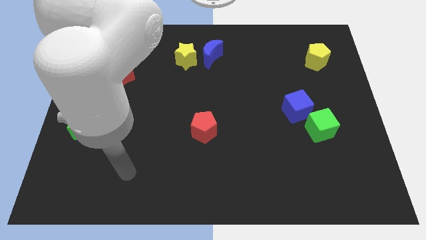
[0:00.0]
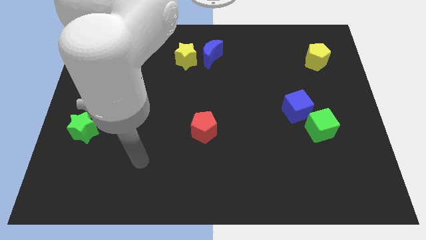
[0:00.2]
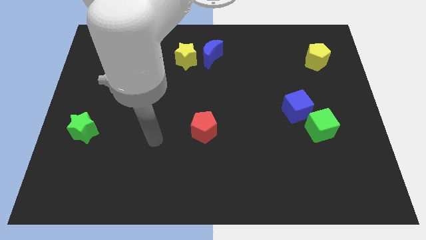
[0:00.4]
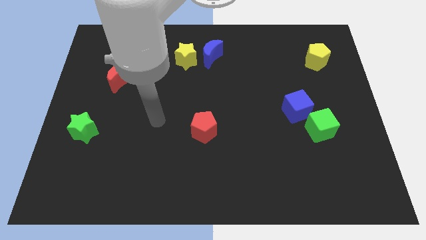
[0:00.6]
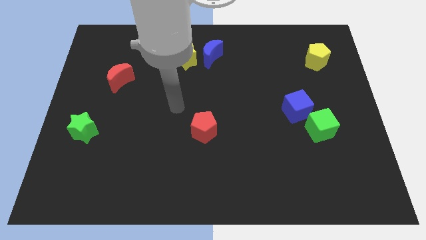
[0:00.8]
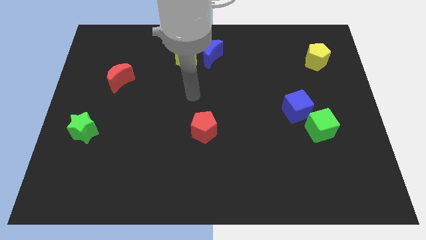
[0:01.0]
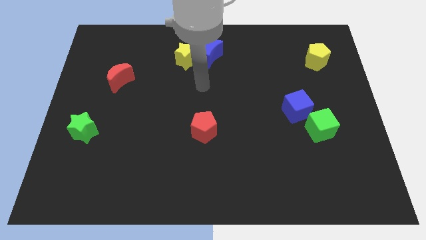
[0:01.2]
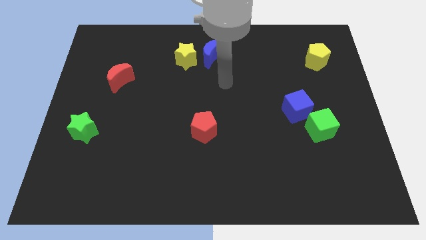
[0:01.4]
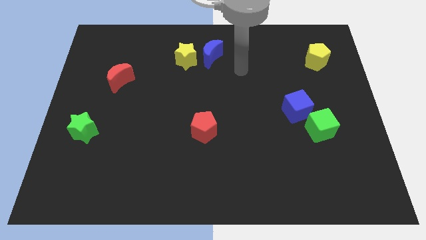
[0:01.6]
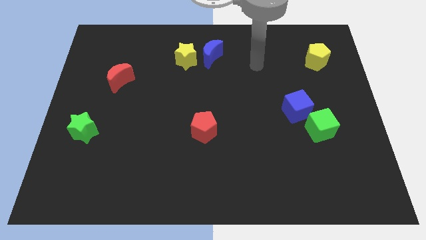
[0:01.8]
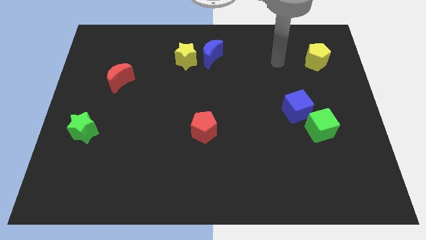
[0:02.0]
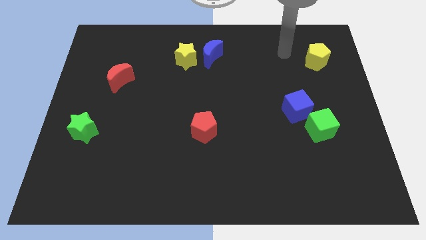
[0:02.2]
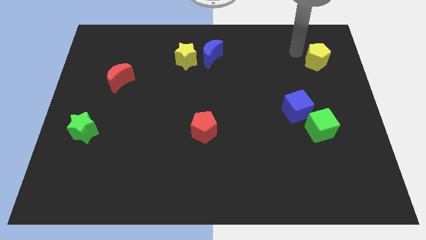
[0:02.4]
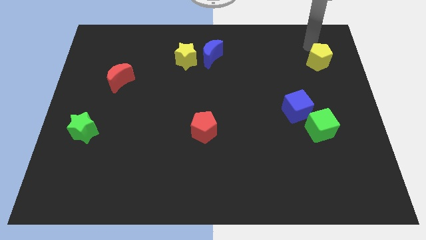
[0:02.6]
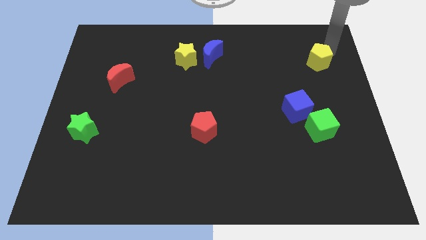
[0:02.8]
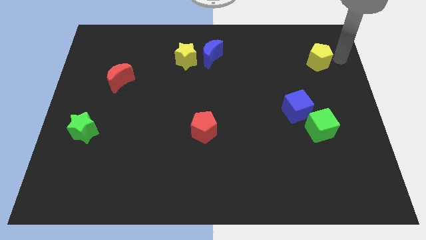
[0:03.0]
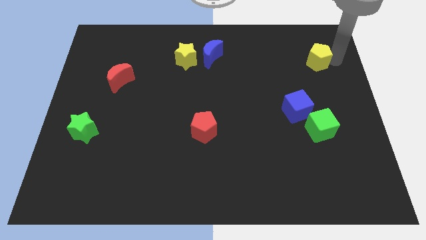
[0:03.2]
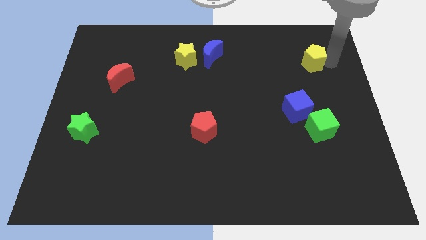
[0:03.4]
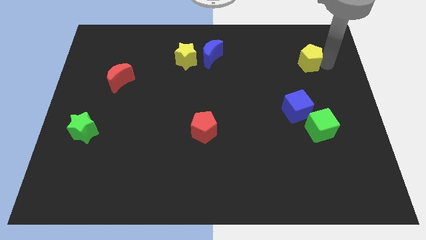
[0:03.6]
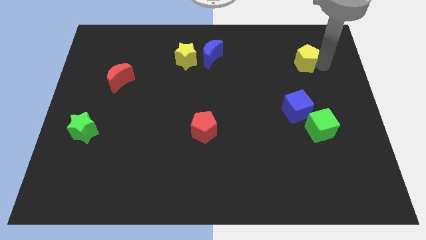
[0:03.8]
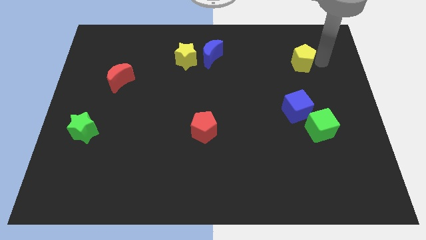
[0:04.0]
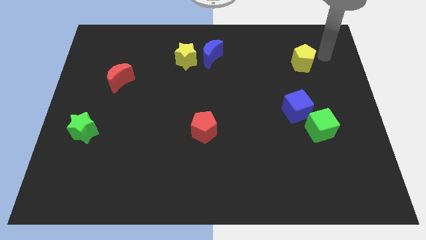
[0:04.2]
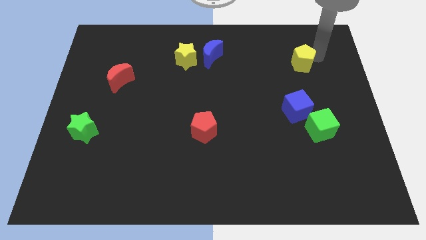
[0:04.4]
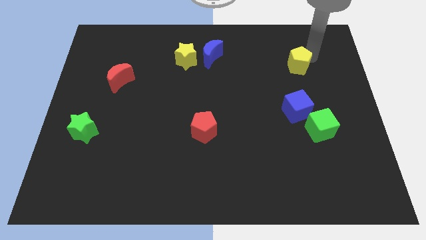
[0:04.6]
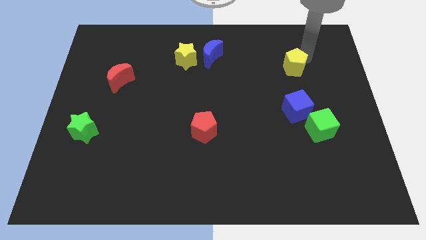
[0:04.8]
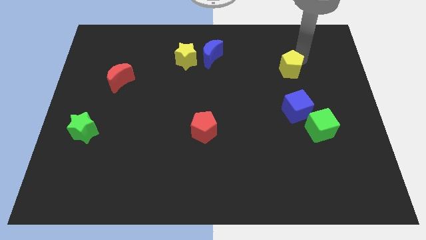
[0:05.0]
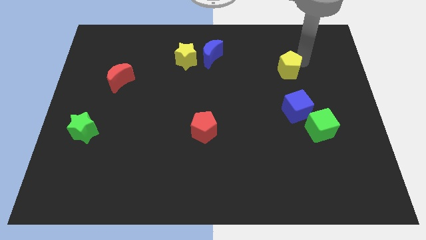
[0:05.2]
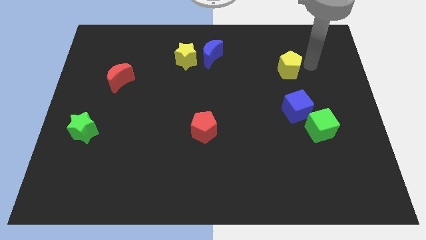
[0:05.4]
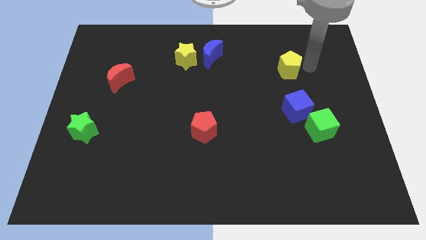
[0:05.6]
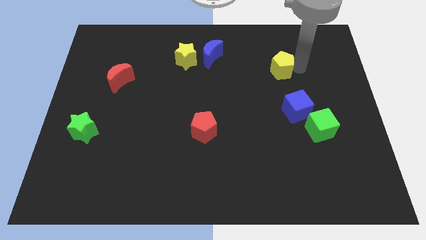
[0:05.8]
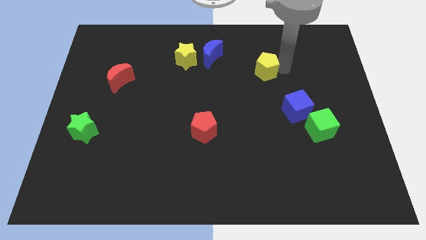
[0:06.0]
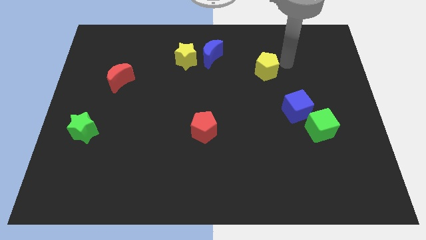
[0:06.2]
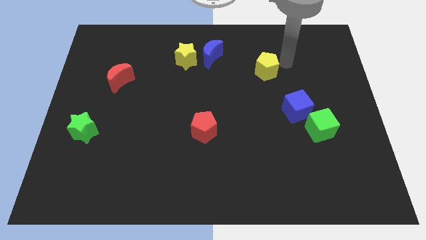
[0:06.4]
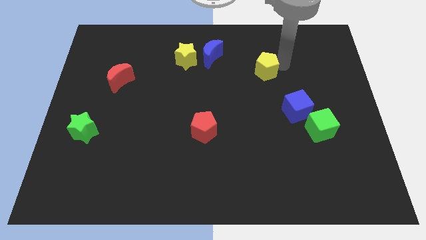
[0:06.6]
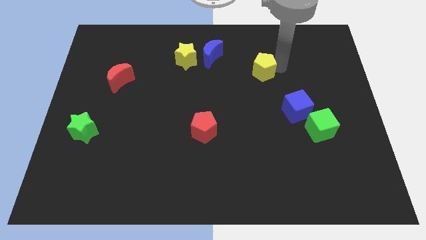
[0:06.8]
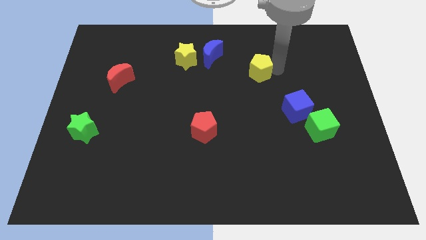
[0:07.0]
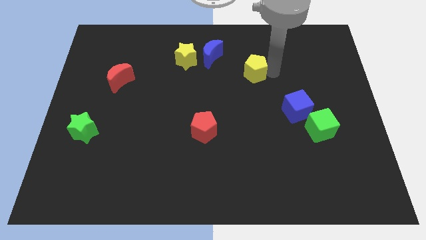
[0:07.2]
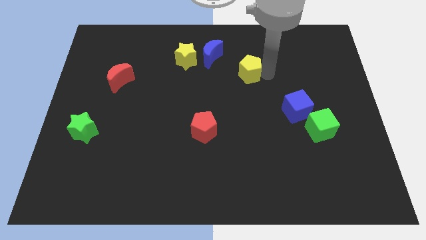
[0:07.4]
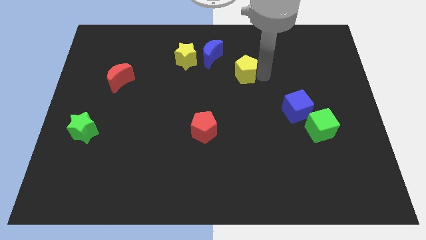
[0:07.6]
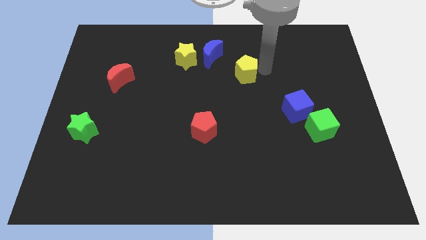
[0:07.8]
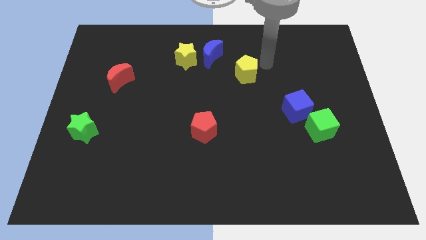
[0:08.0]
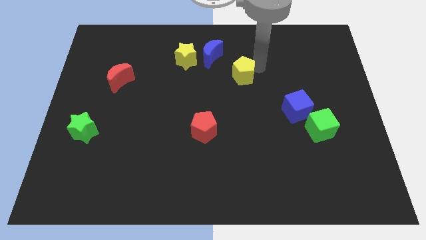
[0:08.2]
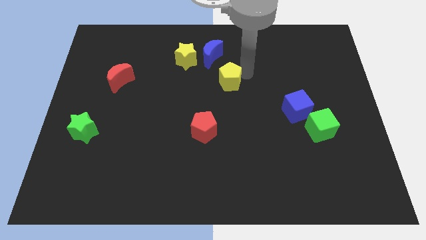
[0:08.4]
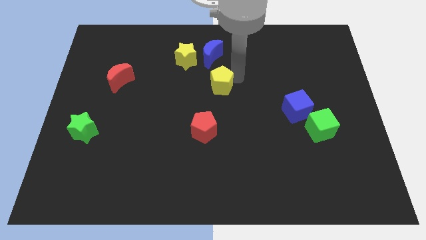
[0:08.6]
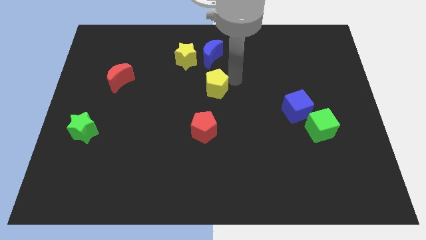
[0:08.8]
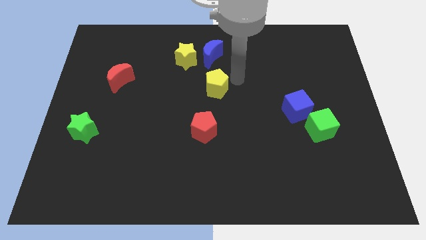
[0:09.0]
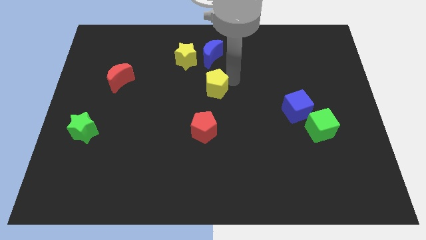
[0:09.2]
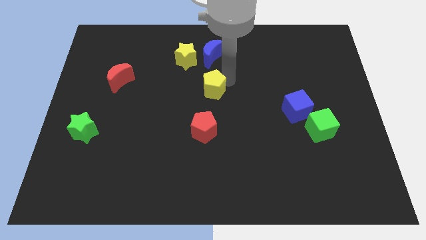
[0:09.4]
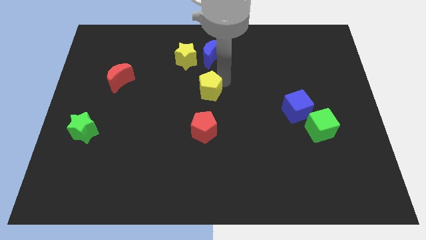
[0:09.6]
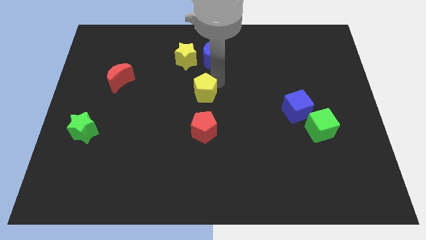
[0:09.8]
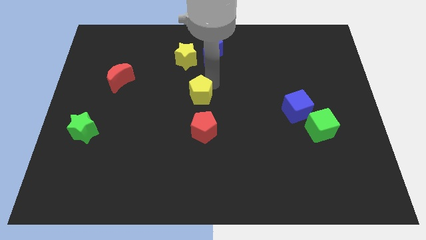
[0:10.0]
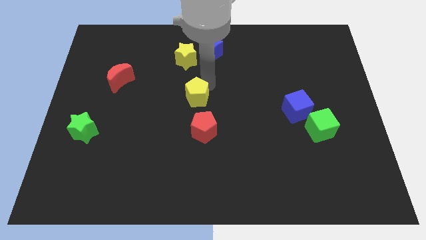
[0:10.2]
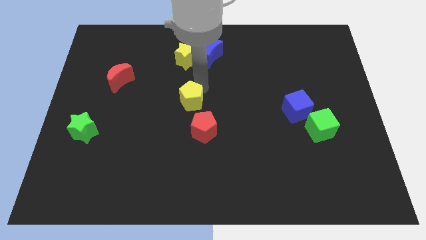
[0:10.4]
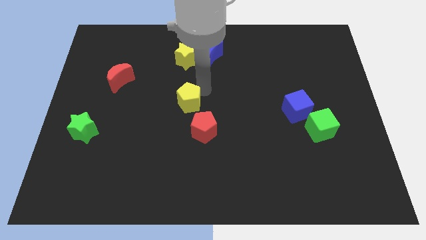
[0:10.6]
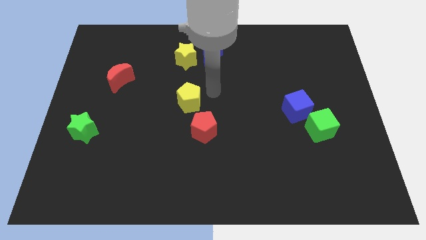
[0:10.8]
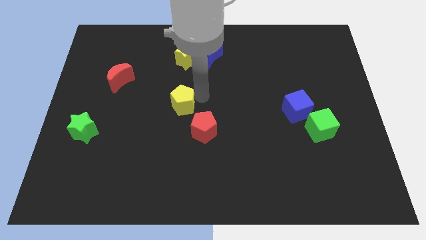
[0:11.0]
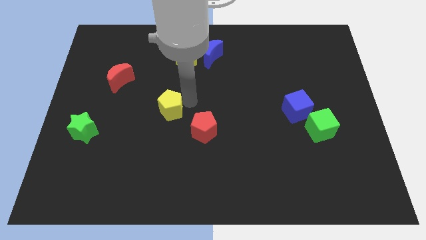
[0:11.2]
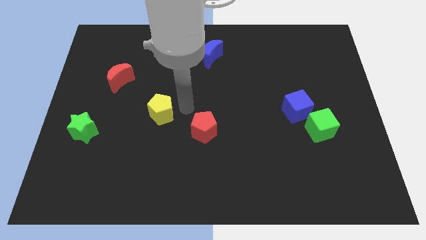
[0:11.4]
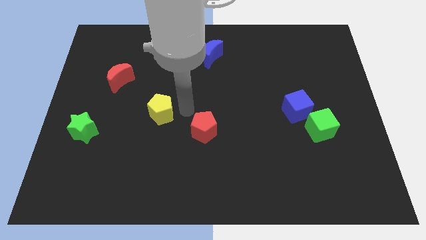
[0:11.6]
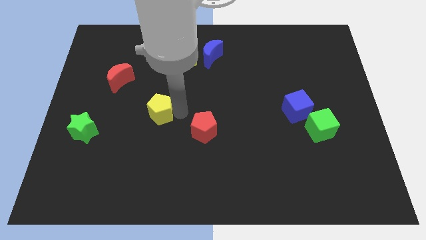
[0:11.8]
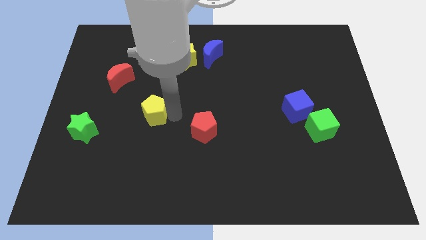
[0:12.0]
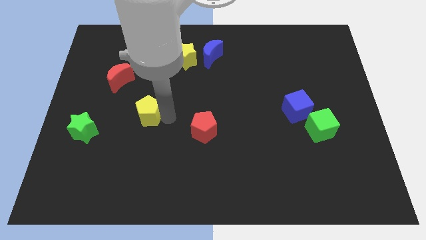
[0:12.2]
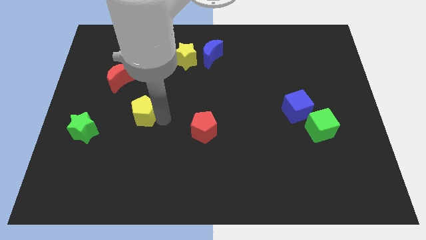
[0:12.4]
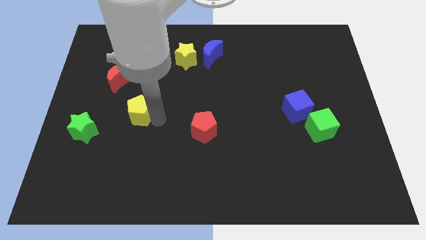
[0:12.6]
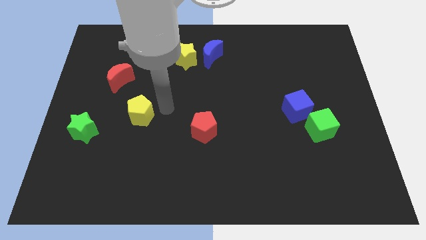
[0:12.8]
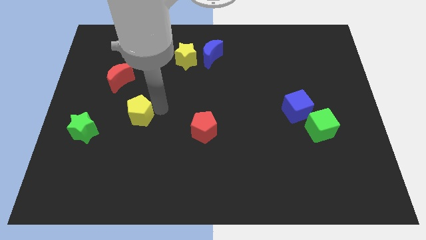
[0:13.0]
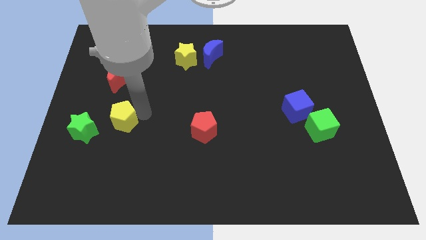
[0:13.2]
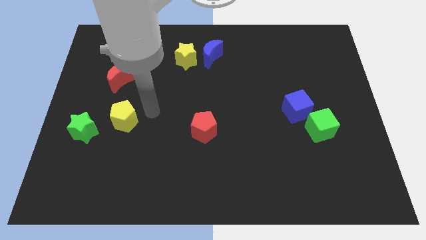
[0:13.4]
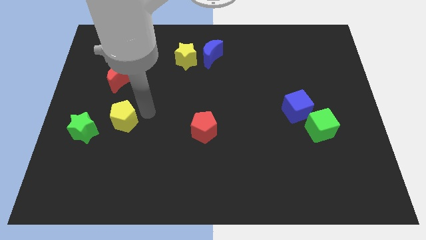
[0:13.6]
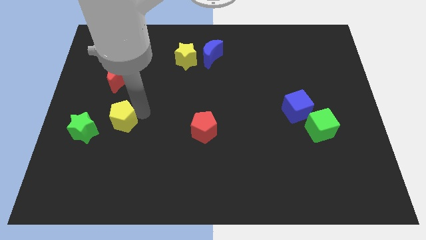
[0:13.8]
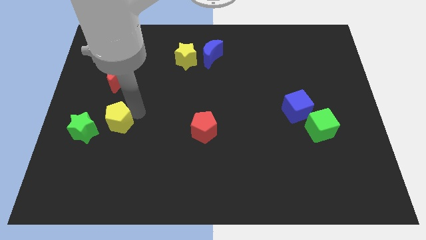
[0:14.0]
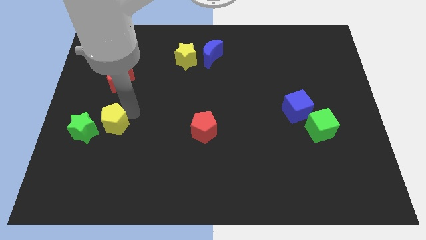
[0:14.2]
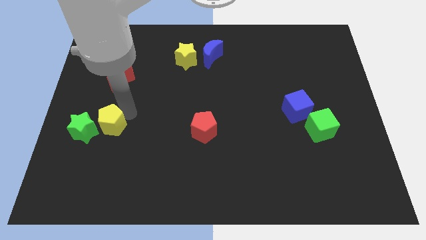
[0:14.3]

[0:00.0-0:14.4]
push the yellow pentagon close to the green star
